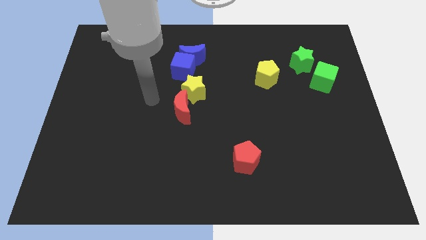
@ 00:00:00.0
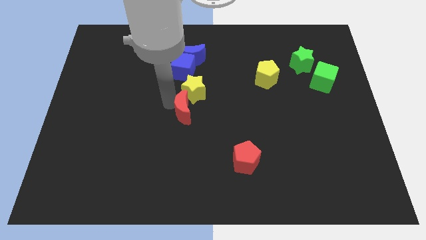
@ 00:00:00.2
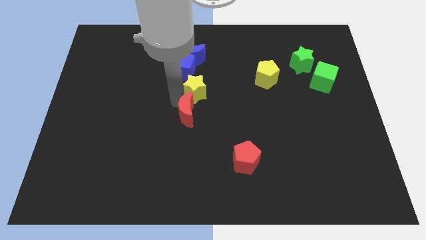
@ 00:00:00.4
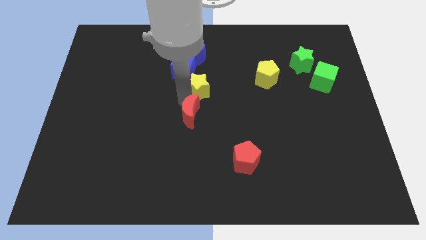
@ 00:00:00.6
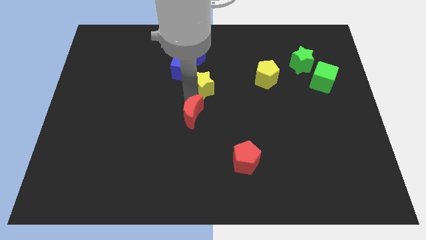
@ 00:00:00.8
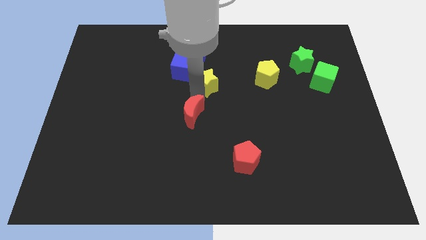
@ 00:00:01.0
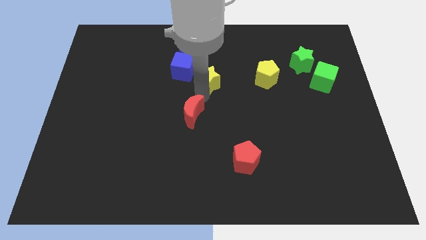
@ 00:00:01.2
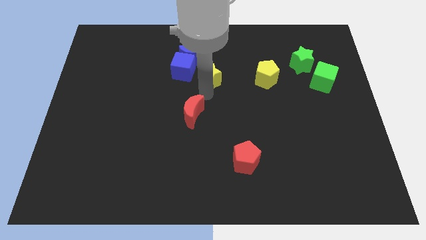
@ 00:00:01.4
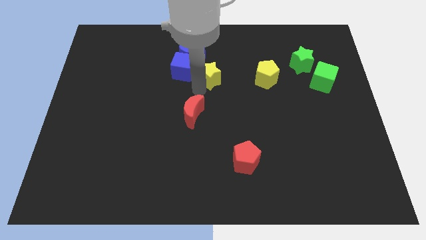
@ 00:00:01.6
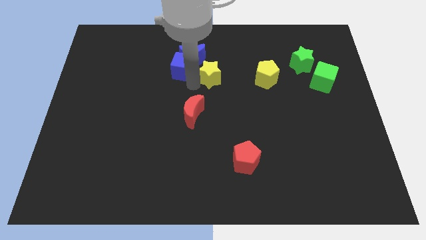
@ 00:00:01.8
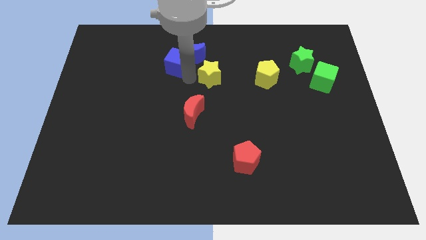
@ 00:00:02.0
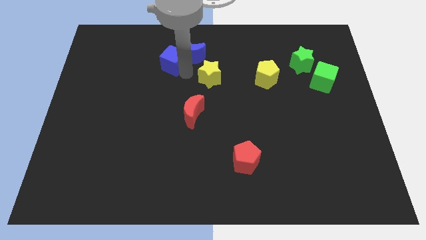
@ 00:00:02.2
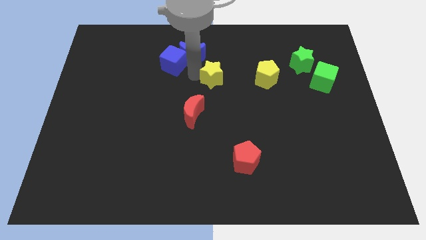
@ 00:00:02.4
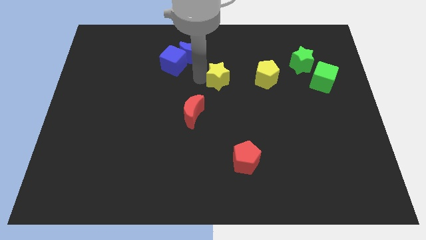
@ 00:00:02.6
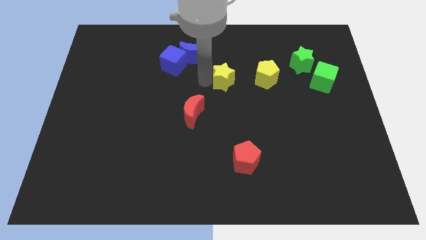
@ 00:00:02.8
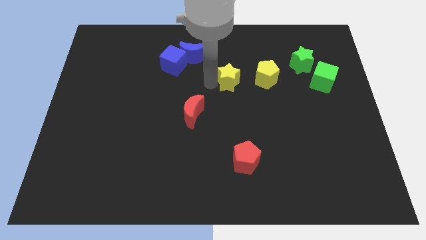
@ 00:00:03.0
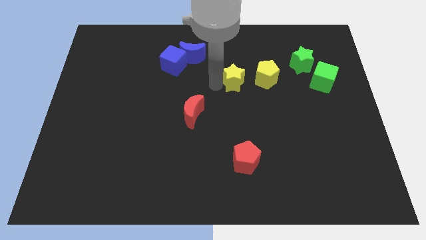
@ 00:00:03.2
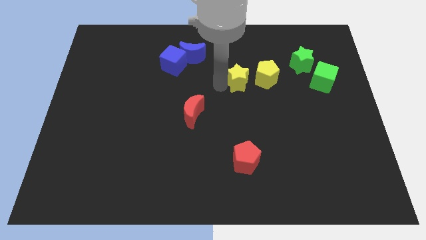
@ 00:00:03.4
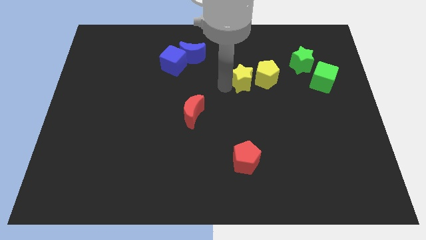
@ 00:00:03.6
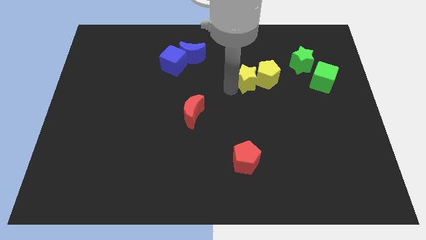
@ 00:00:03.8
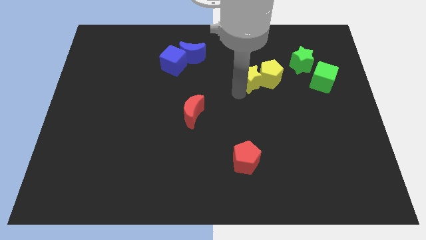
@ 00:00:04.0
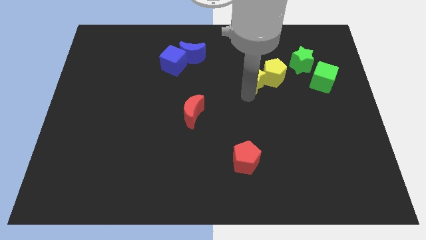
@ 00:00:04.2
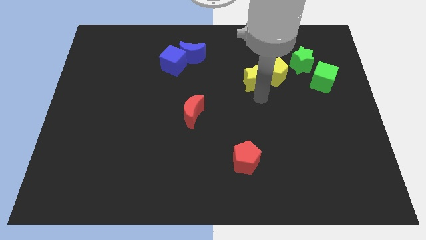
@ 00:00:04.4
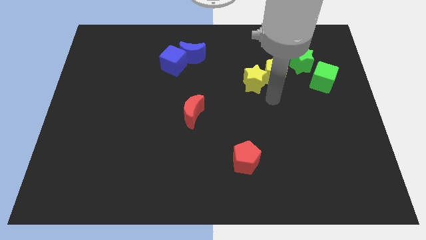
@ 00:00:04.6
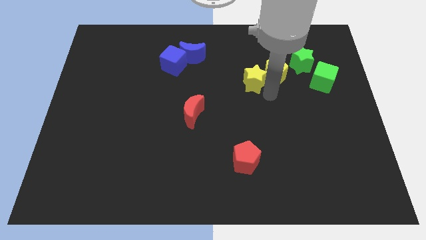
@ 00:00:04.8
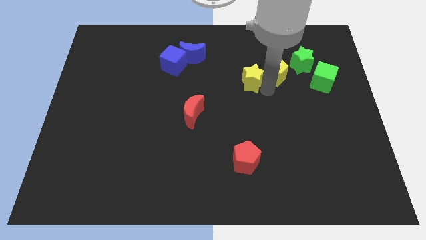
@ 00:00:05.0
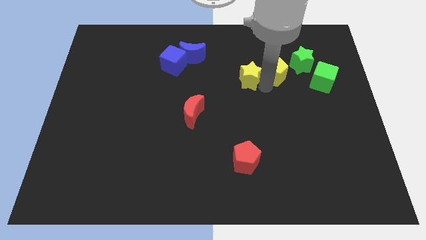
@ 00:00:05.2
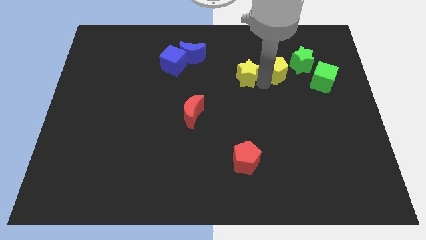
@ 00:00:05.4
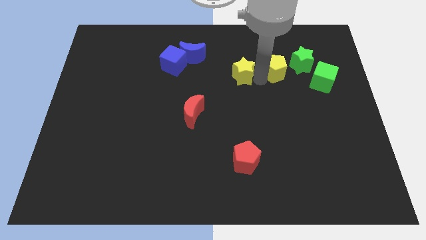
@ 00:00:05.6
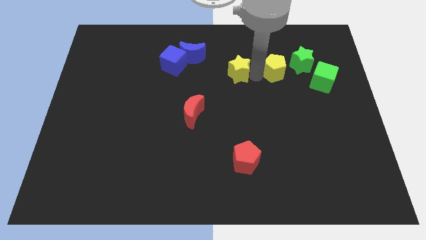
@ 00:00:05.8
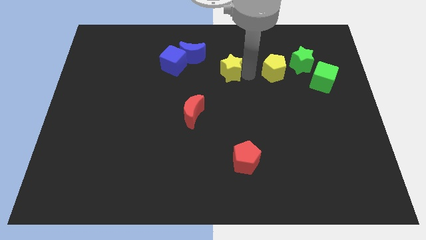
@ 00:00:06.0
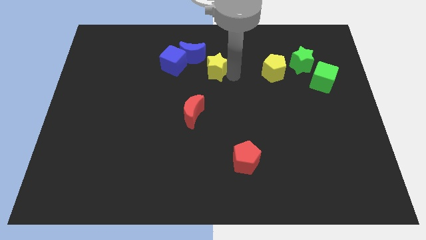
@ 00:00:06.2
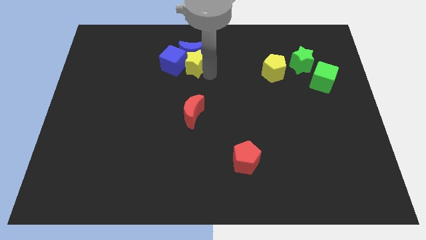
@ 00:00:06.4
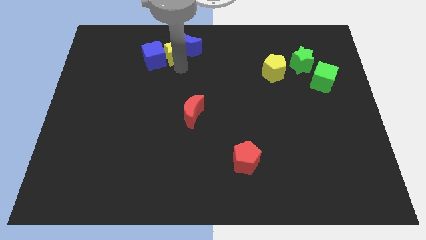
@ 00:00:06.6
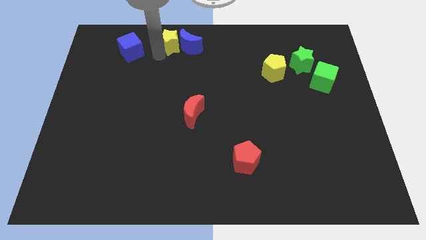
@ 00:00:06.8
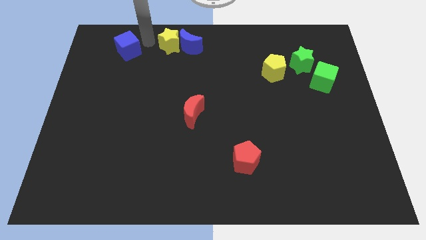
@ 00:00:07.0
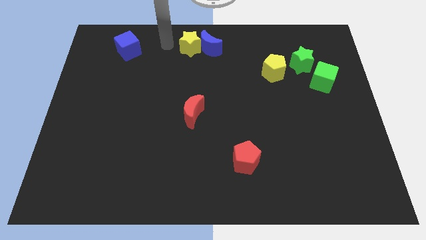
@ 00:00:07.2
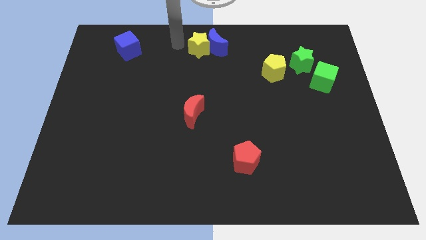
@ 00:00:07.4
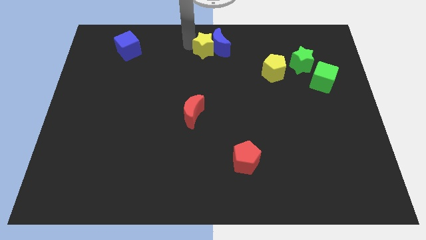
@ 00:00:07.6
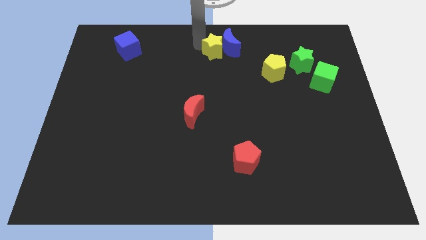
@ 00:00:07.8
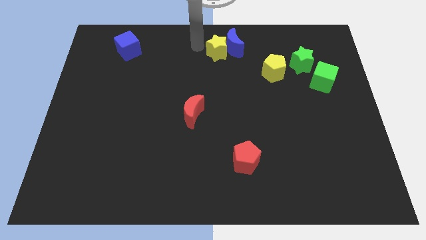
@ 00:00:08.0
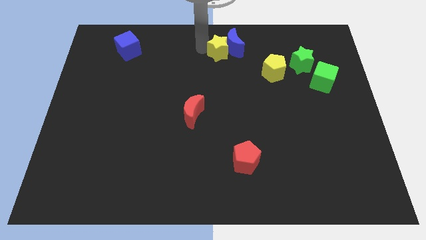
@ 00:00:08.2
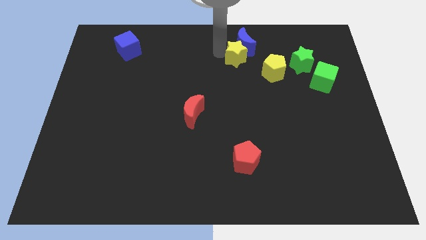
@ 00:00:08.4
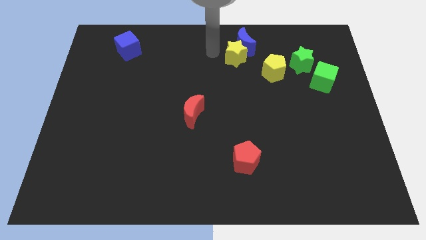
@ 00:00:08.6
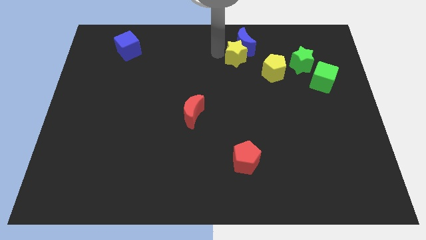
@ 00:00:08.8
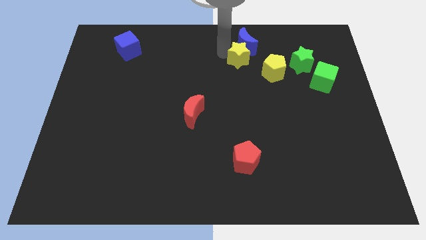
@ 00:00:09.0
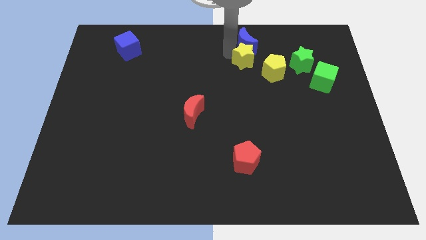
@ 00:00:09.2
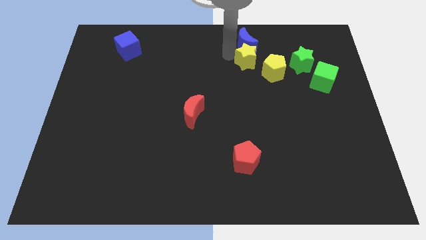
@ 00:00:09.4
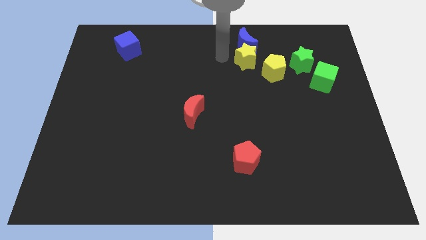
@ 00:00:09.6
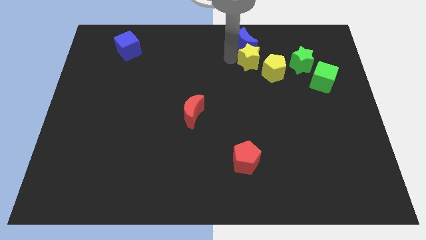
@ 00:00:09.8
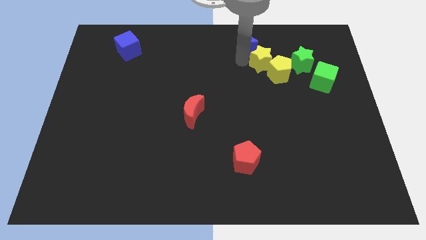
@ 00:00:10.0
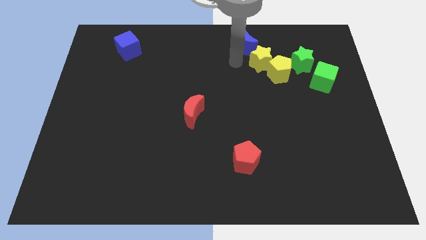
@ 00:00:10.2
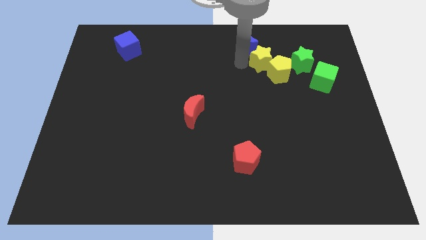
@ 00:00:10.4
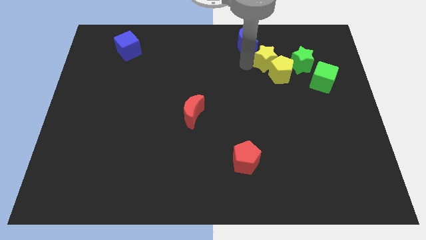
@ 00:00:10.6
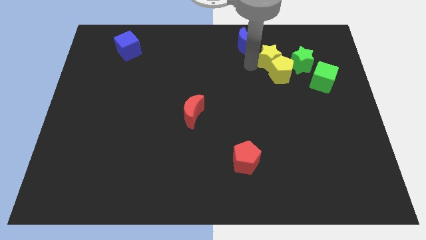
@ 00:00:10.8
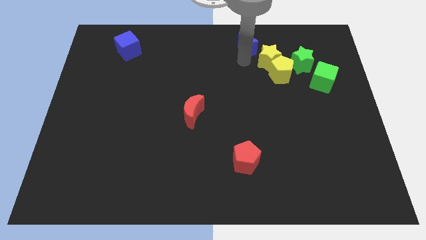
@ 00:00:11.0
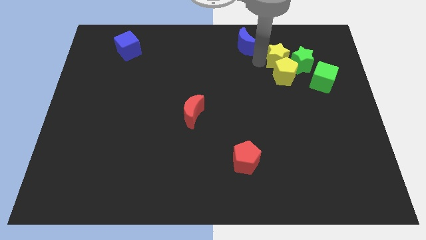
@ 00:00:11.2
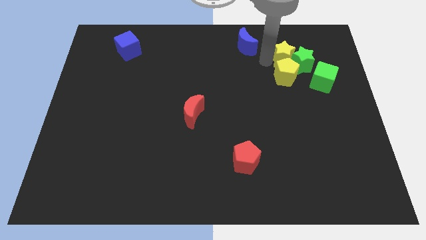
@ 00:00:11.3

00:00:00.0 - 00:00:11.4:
push the yellow star next to the green star

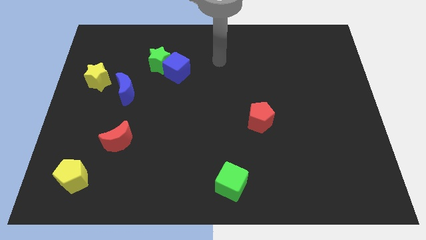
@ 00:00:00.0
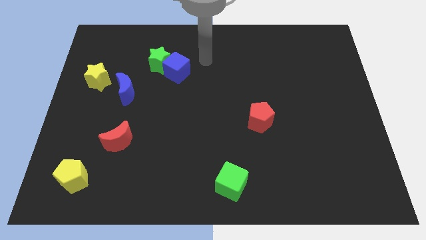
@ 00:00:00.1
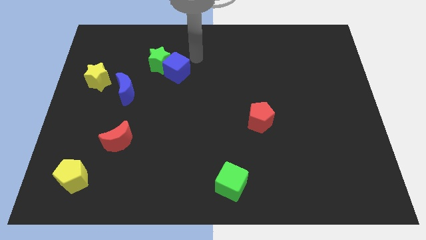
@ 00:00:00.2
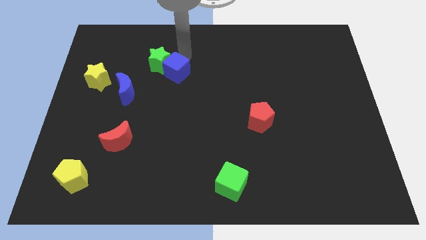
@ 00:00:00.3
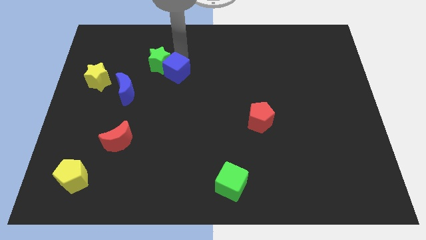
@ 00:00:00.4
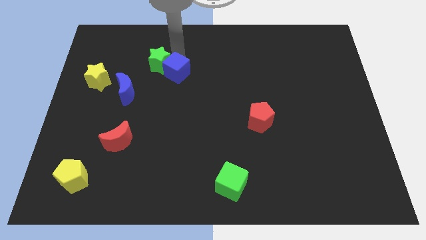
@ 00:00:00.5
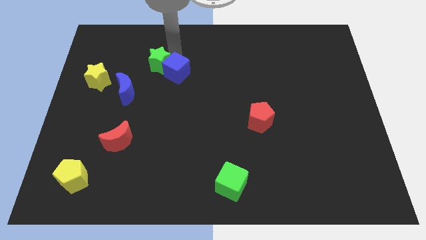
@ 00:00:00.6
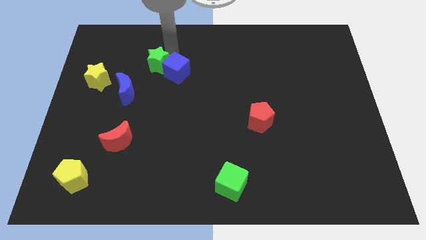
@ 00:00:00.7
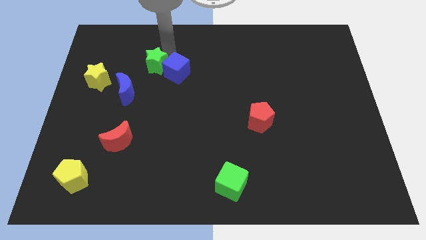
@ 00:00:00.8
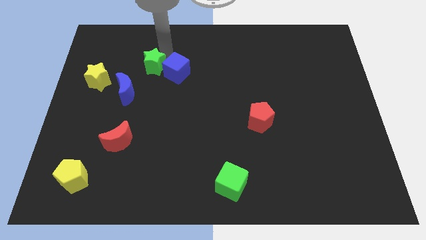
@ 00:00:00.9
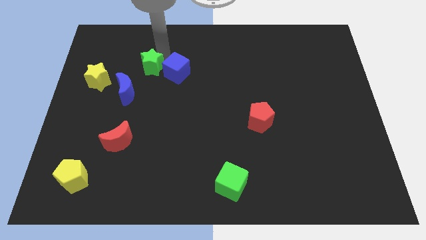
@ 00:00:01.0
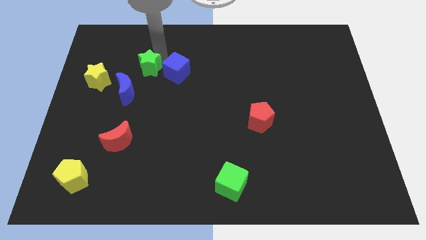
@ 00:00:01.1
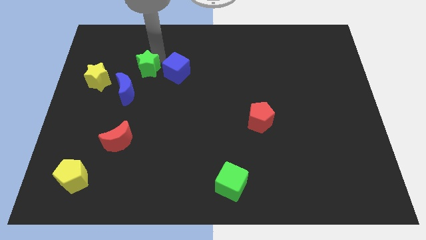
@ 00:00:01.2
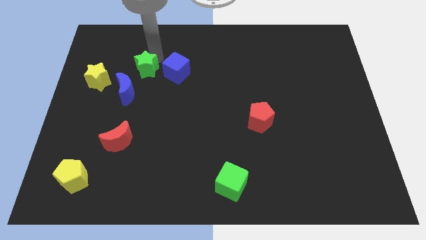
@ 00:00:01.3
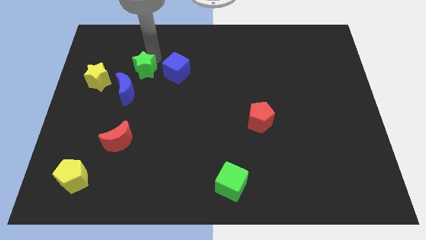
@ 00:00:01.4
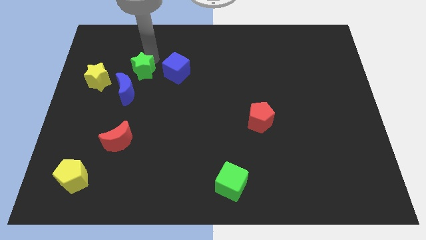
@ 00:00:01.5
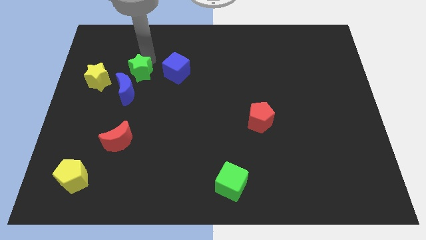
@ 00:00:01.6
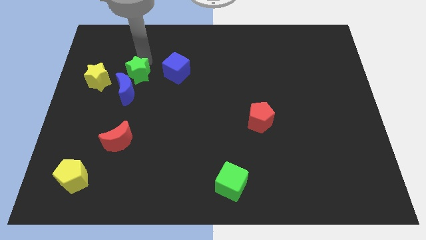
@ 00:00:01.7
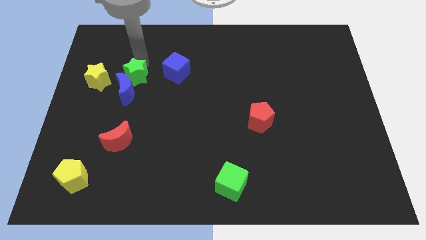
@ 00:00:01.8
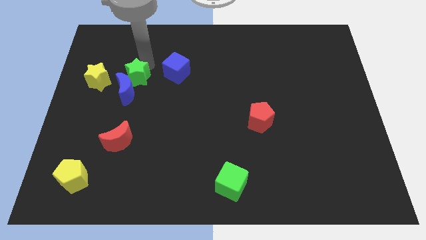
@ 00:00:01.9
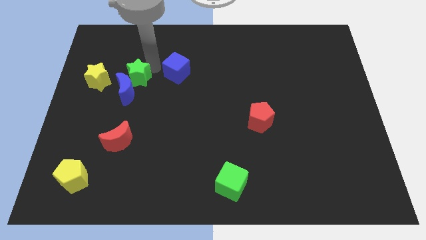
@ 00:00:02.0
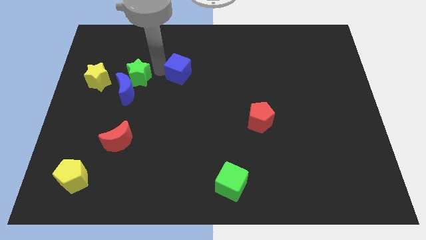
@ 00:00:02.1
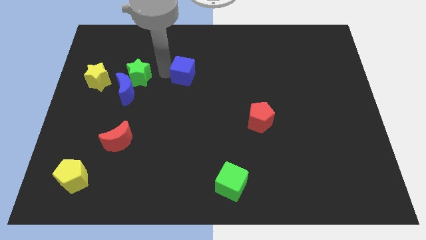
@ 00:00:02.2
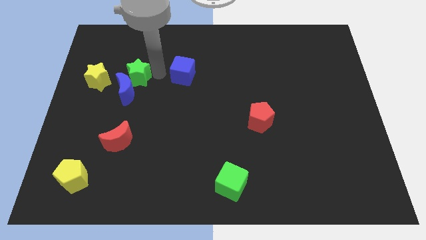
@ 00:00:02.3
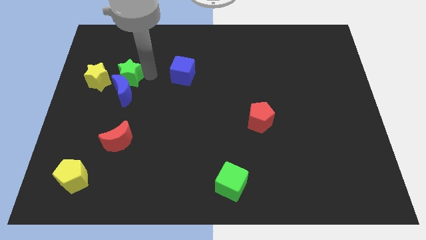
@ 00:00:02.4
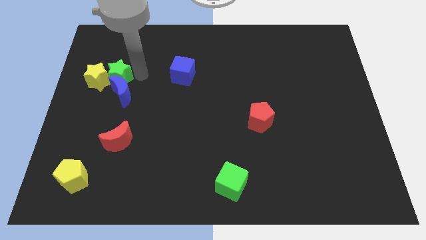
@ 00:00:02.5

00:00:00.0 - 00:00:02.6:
push the green star towards the yellow star
